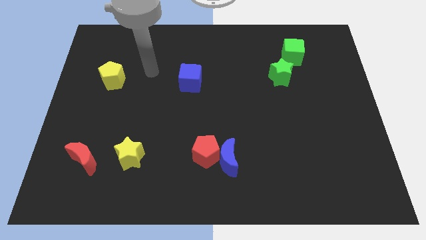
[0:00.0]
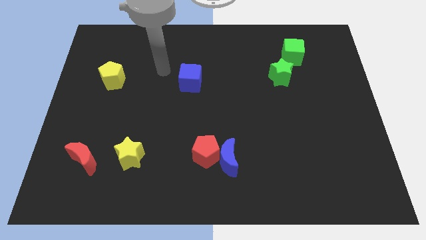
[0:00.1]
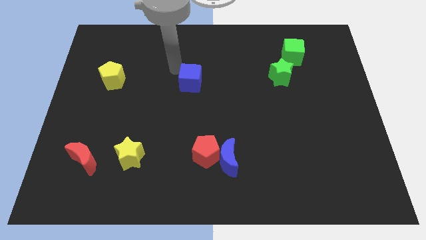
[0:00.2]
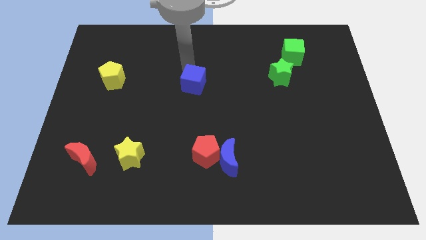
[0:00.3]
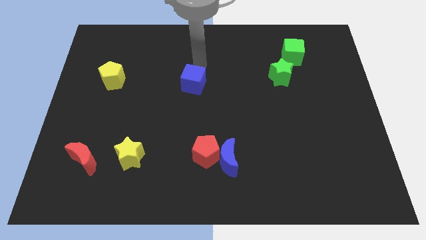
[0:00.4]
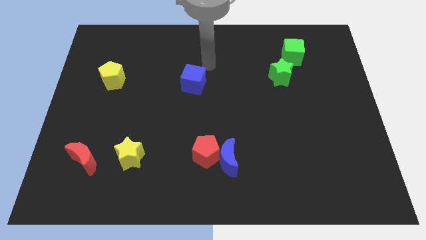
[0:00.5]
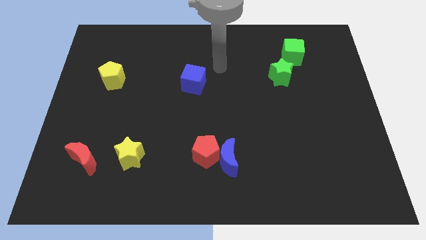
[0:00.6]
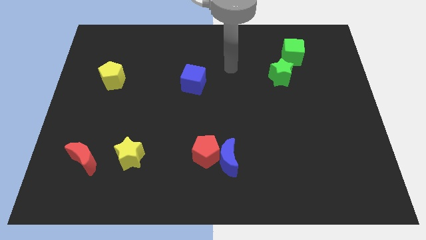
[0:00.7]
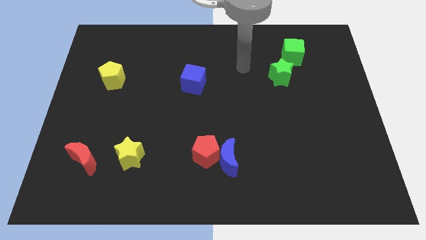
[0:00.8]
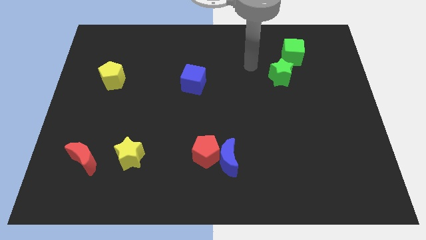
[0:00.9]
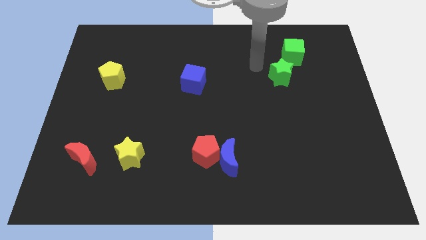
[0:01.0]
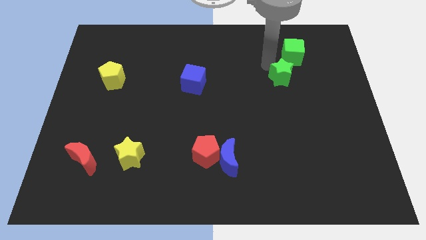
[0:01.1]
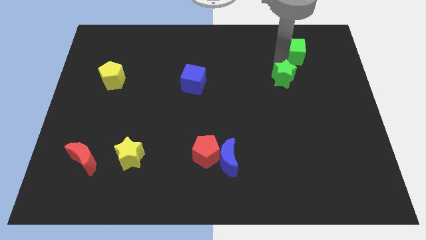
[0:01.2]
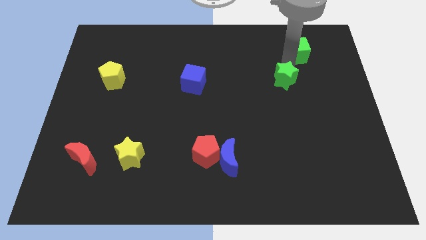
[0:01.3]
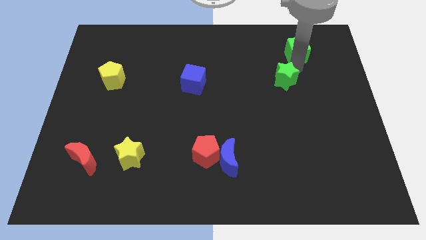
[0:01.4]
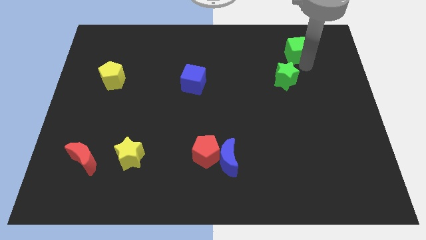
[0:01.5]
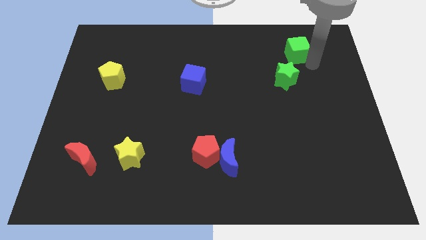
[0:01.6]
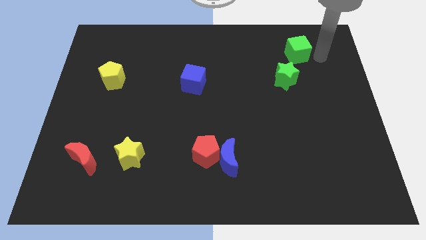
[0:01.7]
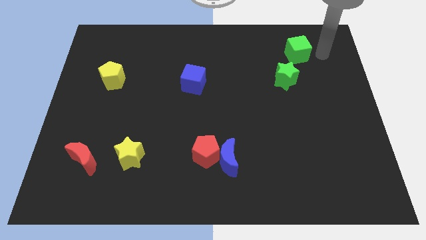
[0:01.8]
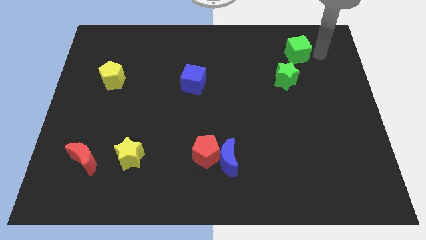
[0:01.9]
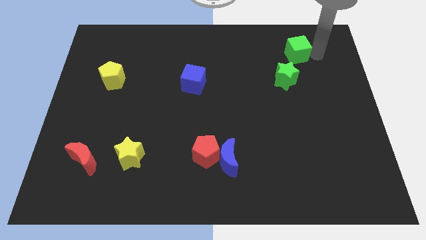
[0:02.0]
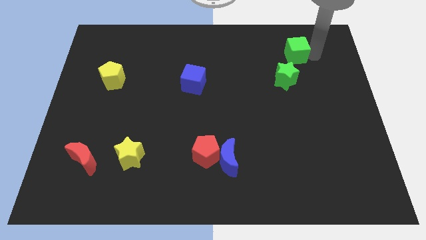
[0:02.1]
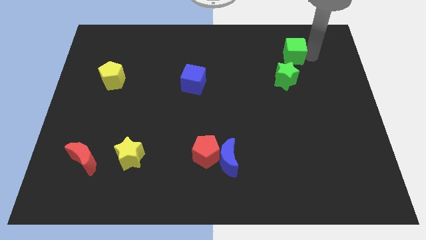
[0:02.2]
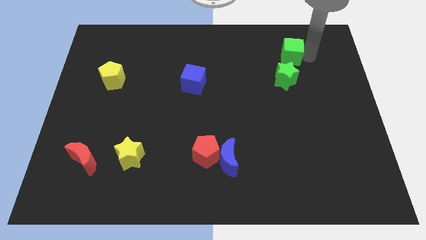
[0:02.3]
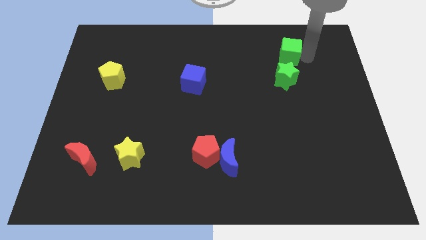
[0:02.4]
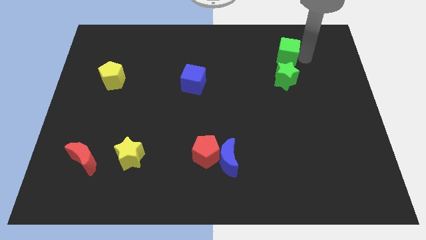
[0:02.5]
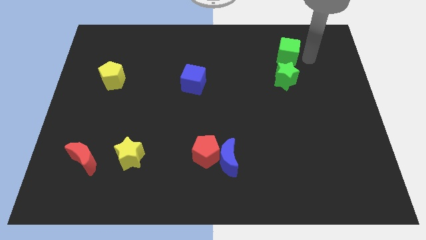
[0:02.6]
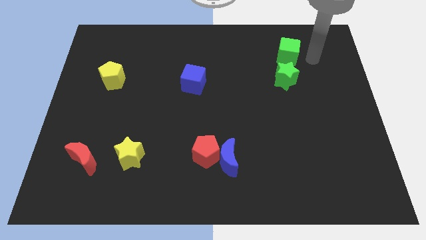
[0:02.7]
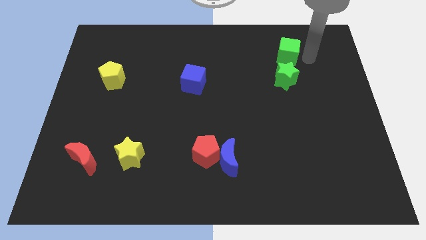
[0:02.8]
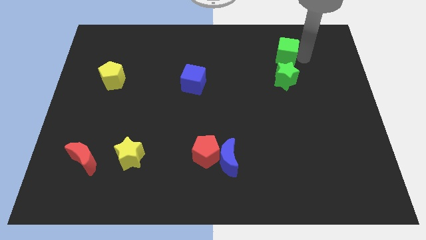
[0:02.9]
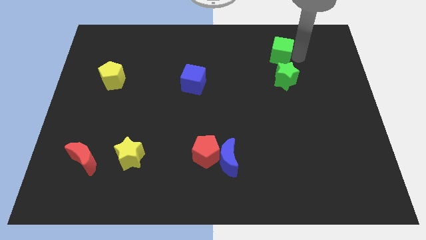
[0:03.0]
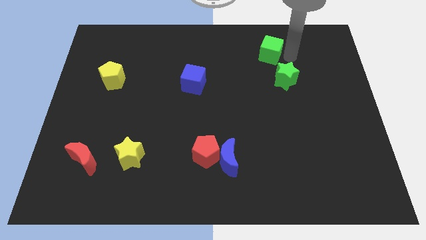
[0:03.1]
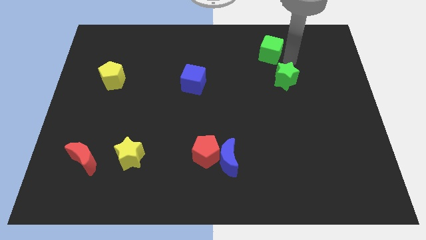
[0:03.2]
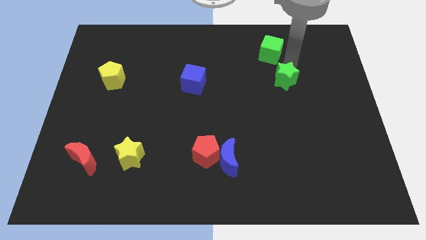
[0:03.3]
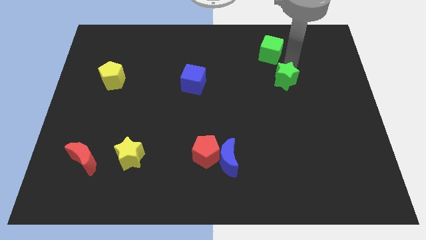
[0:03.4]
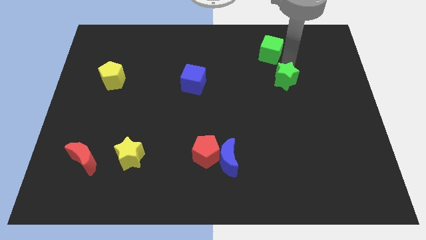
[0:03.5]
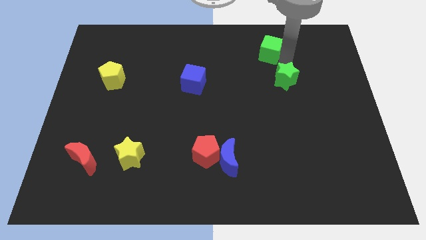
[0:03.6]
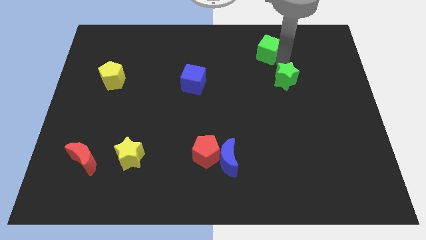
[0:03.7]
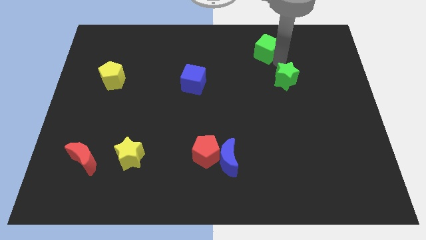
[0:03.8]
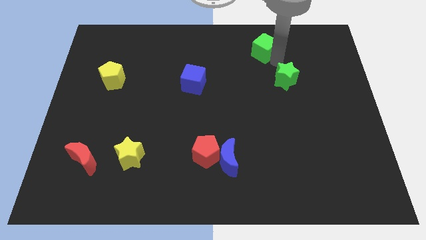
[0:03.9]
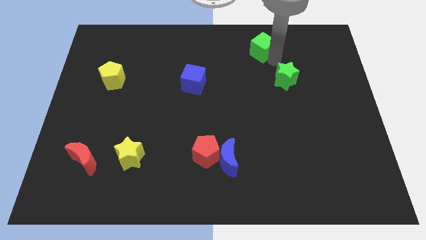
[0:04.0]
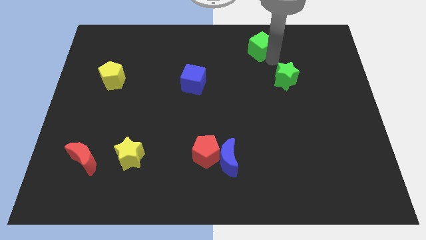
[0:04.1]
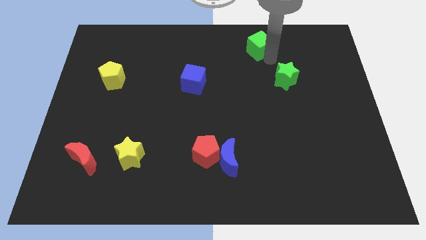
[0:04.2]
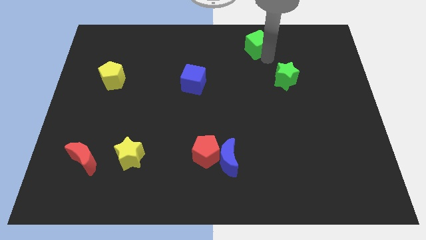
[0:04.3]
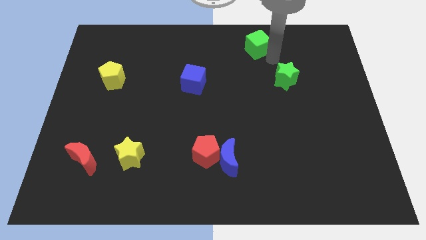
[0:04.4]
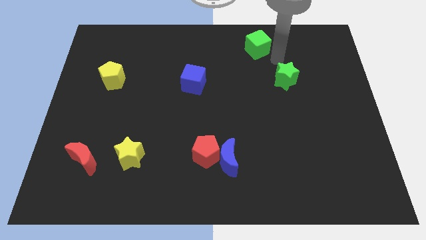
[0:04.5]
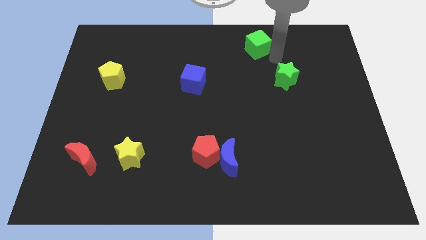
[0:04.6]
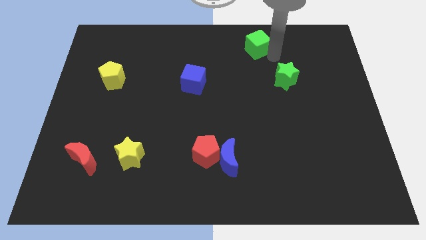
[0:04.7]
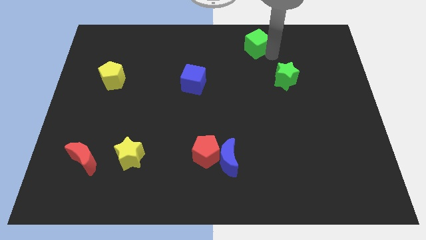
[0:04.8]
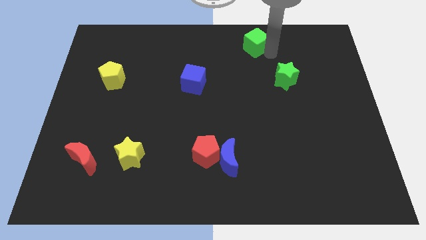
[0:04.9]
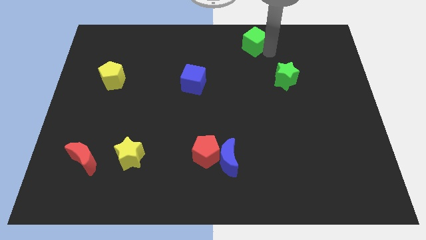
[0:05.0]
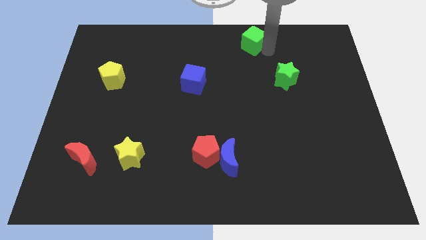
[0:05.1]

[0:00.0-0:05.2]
put the green cube to the towards your base

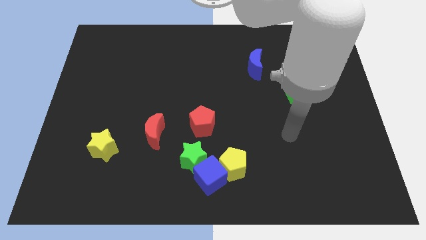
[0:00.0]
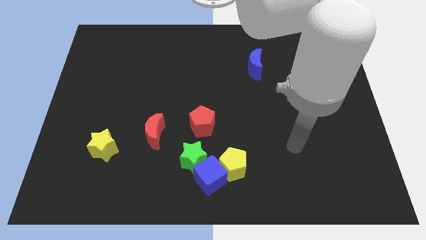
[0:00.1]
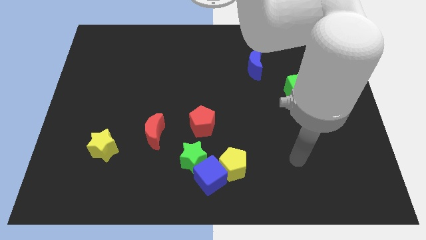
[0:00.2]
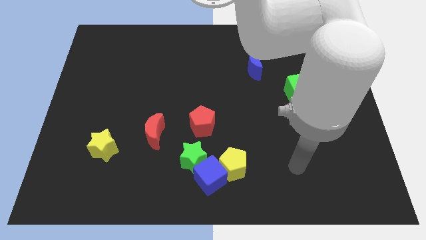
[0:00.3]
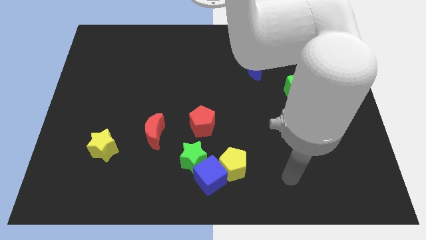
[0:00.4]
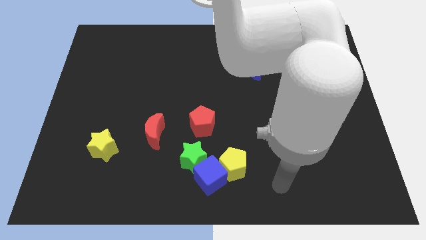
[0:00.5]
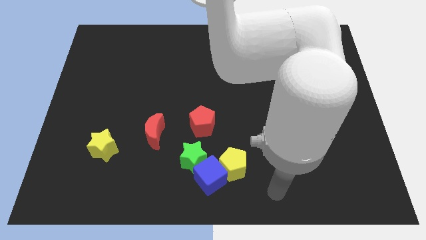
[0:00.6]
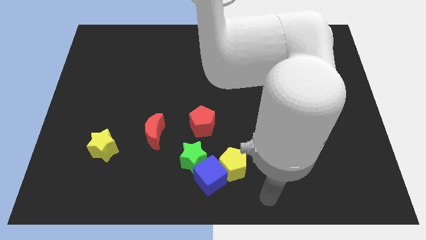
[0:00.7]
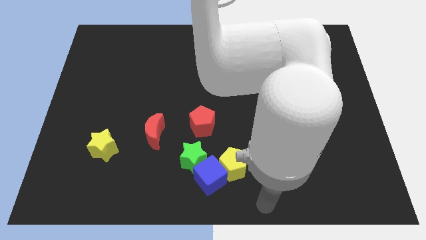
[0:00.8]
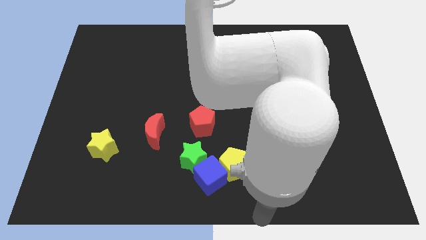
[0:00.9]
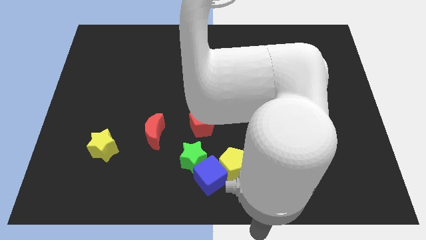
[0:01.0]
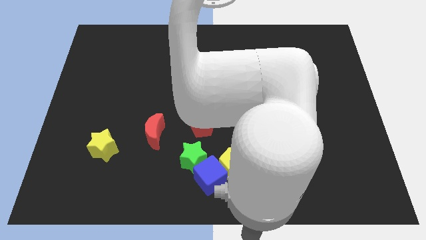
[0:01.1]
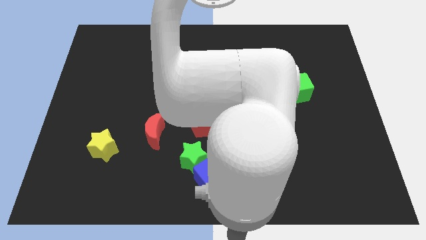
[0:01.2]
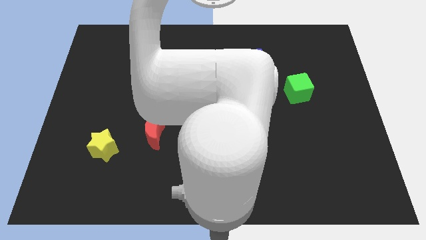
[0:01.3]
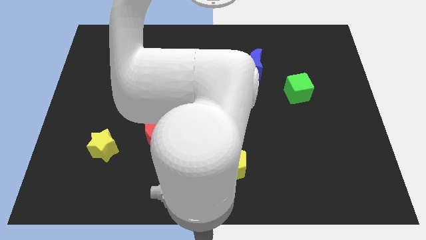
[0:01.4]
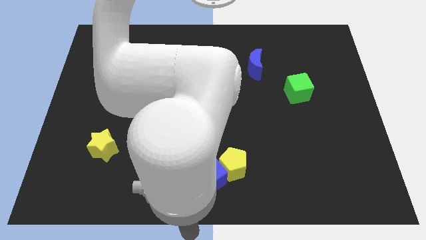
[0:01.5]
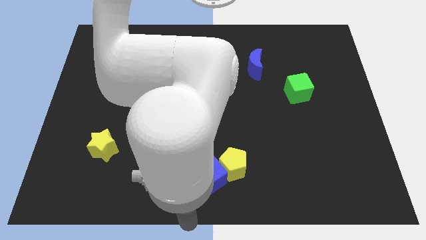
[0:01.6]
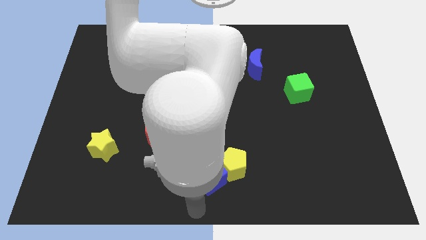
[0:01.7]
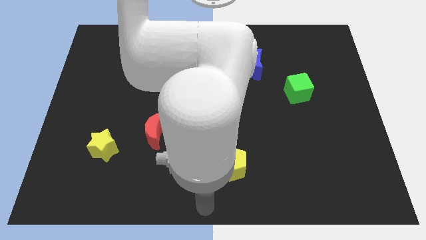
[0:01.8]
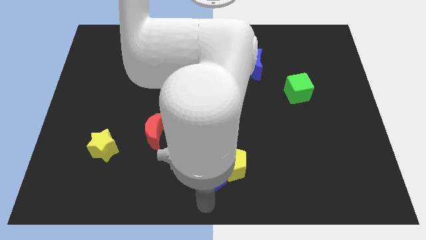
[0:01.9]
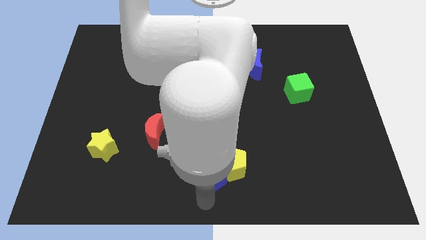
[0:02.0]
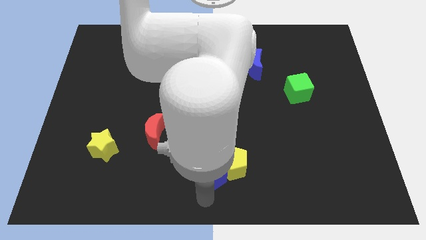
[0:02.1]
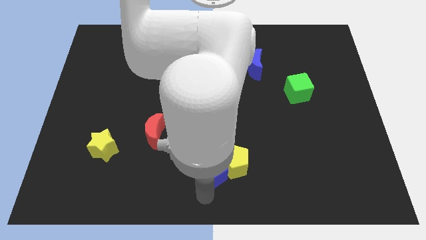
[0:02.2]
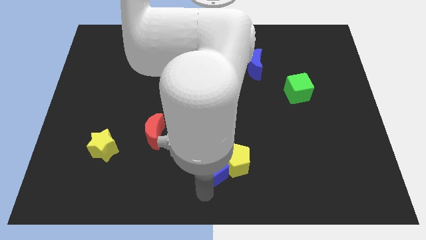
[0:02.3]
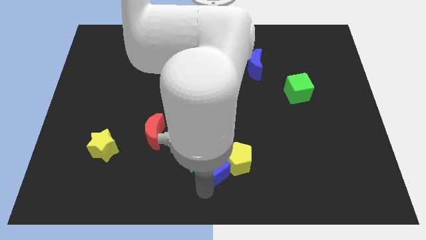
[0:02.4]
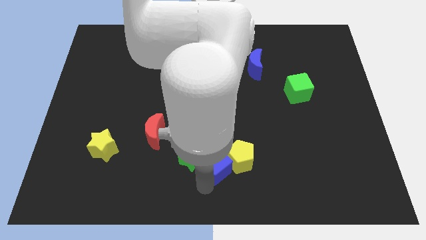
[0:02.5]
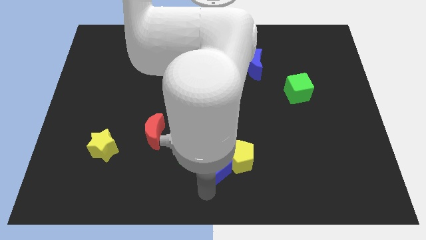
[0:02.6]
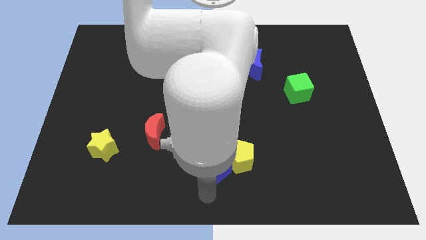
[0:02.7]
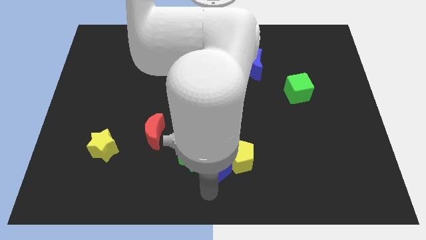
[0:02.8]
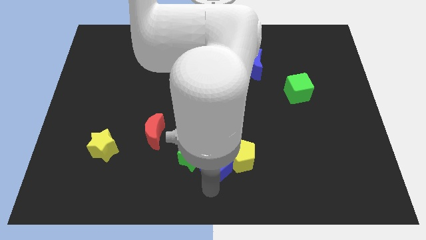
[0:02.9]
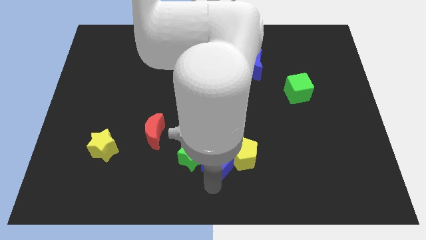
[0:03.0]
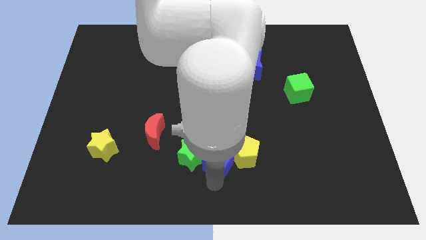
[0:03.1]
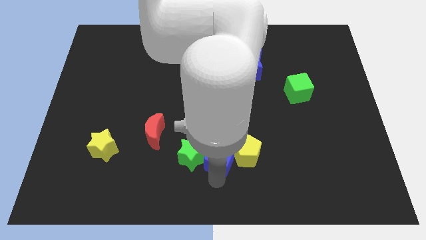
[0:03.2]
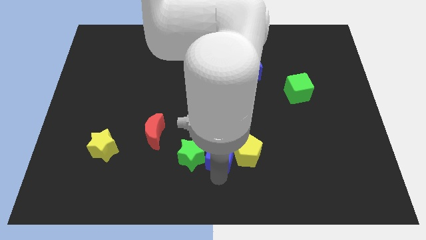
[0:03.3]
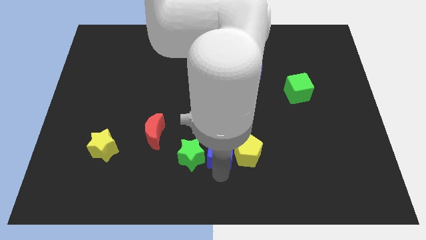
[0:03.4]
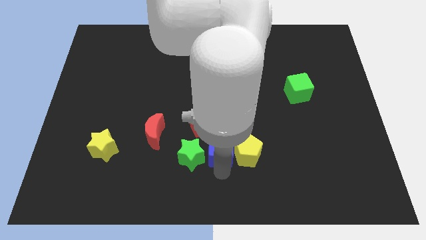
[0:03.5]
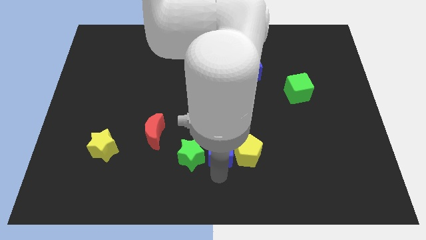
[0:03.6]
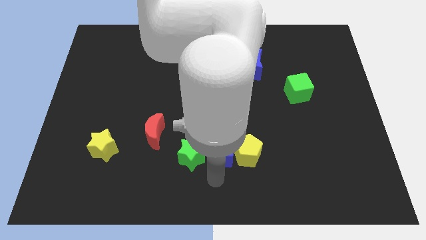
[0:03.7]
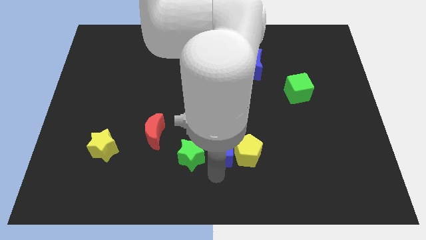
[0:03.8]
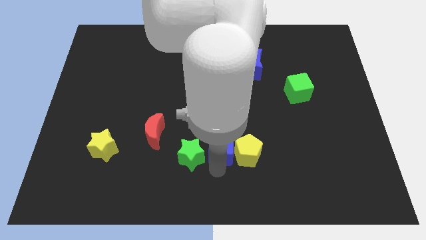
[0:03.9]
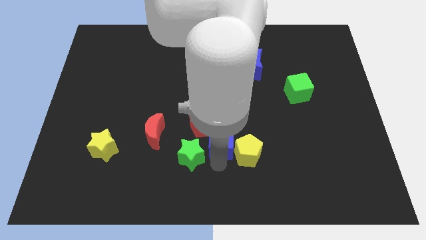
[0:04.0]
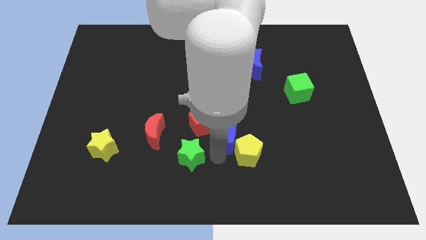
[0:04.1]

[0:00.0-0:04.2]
move the blue cube to the middle of the board
